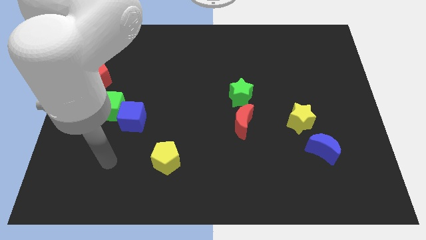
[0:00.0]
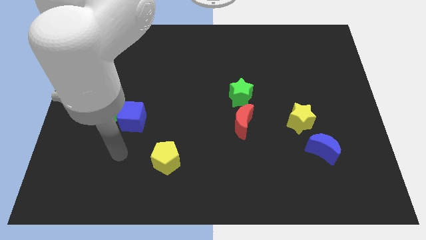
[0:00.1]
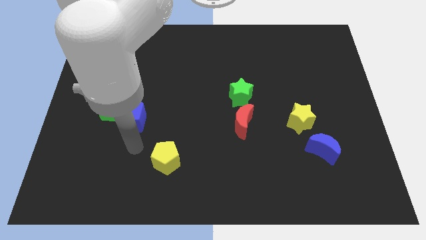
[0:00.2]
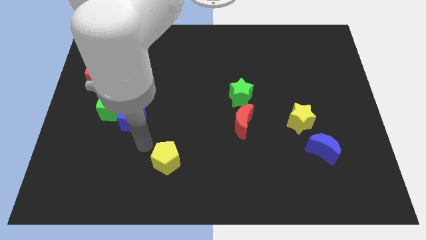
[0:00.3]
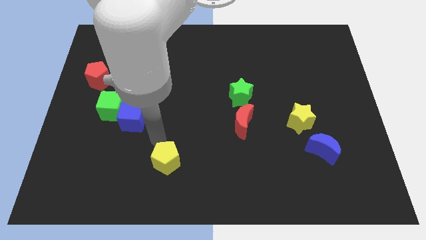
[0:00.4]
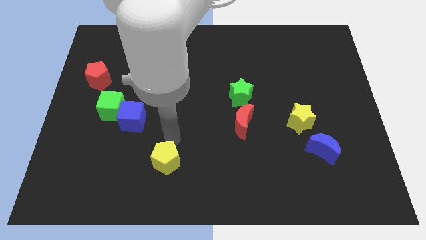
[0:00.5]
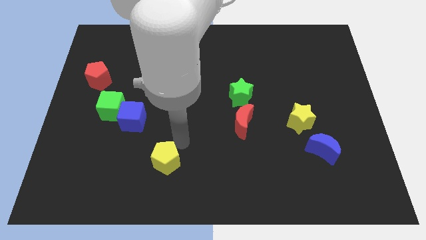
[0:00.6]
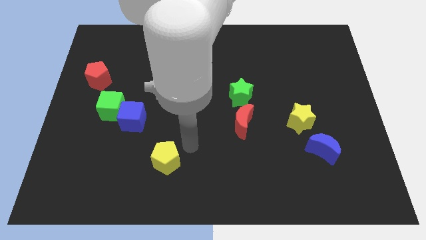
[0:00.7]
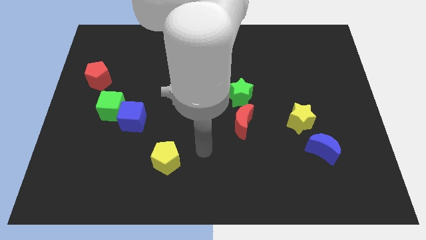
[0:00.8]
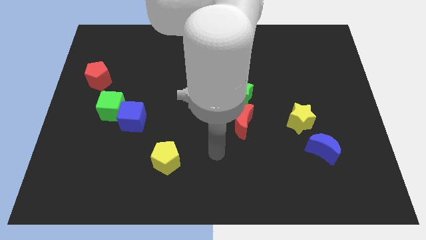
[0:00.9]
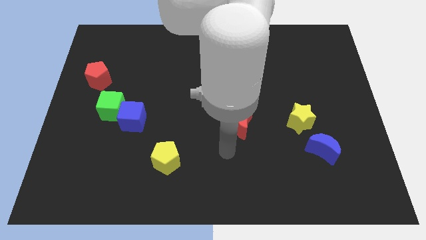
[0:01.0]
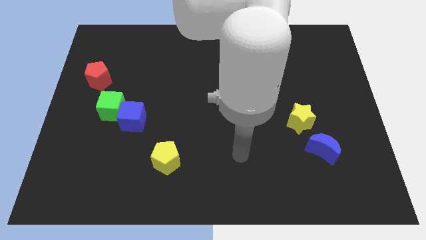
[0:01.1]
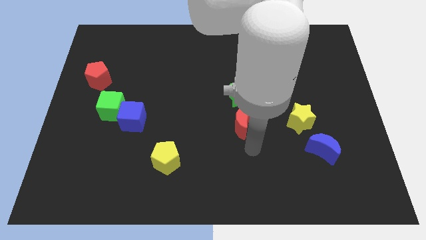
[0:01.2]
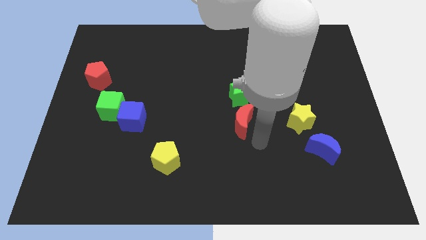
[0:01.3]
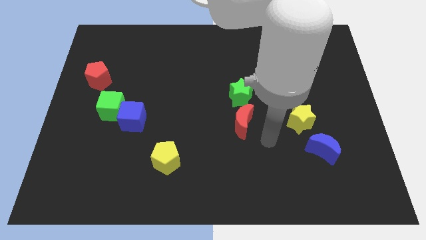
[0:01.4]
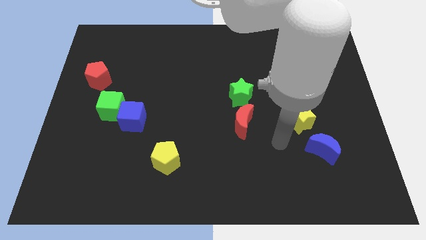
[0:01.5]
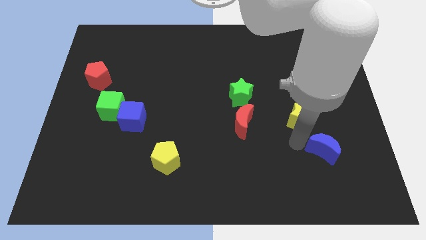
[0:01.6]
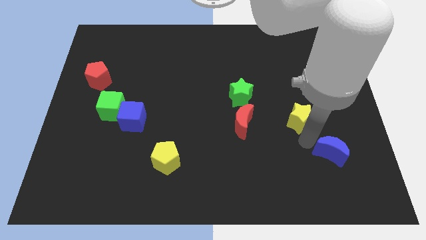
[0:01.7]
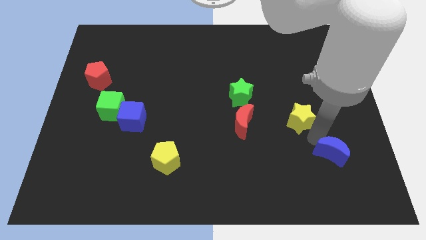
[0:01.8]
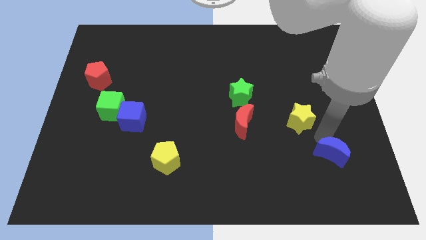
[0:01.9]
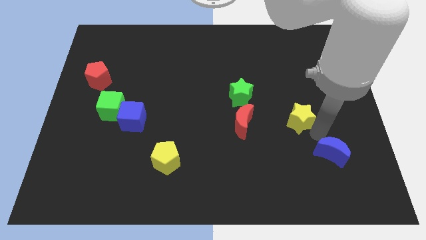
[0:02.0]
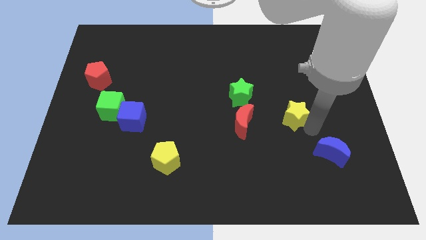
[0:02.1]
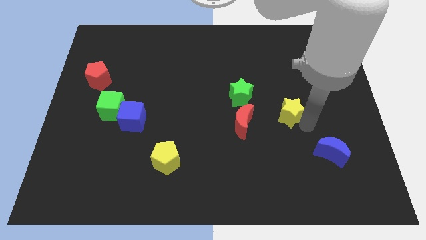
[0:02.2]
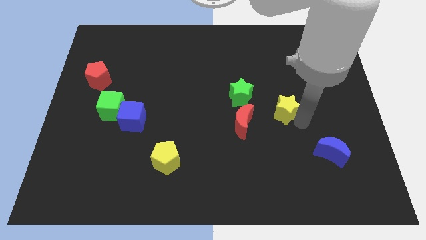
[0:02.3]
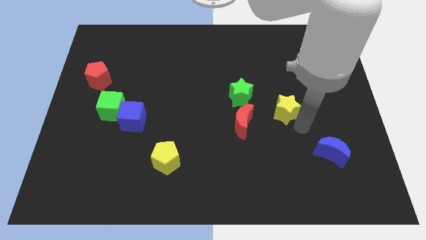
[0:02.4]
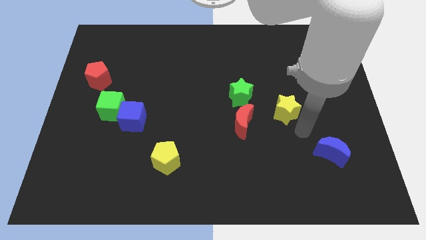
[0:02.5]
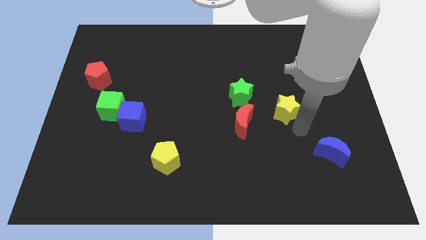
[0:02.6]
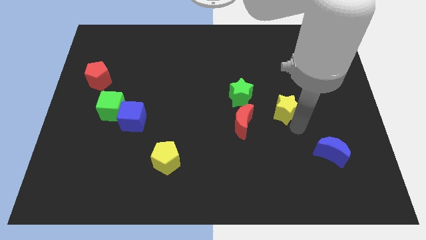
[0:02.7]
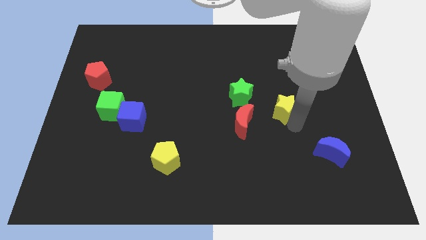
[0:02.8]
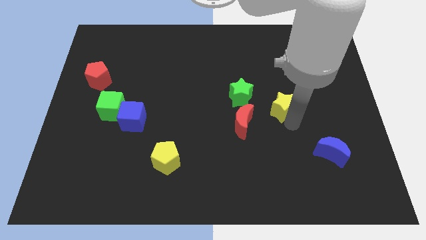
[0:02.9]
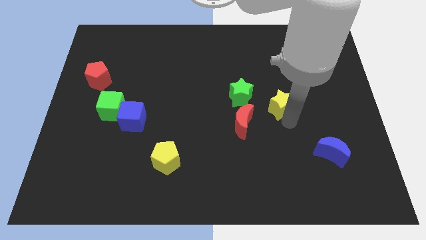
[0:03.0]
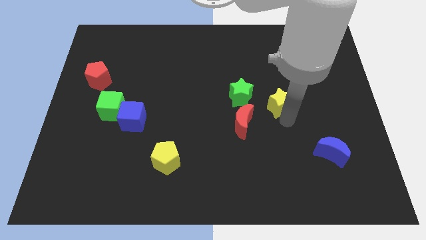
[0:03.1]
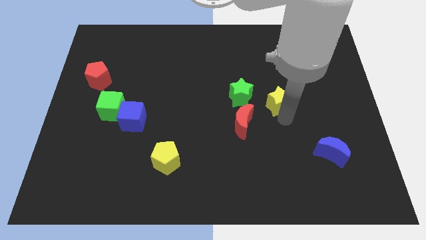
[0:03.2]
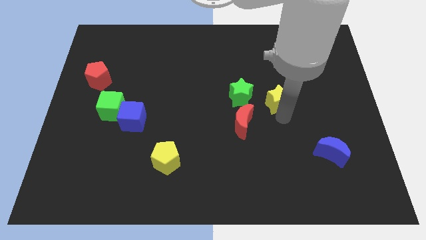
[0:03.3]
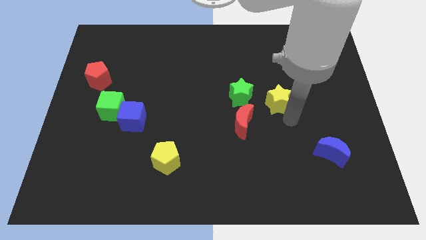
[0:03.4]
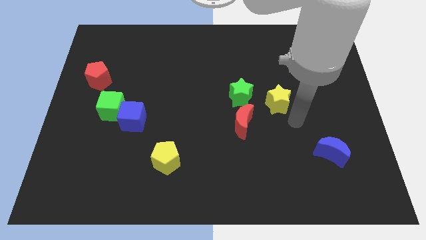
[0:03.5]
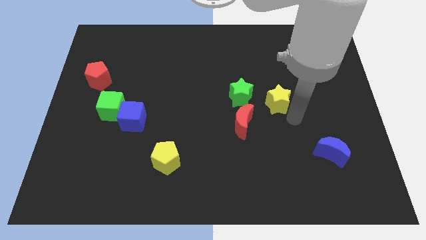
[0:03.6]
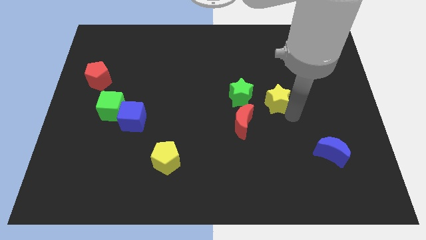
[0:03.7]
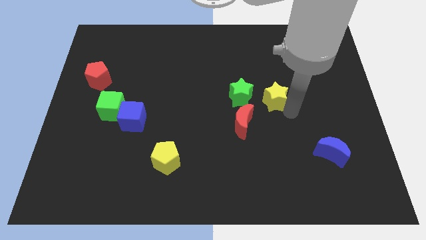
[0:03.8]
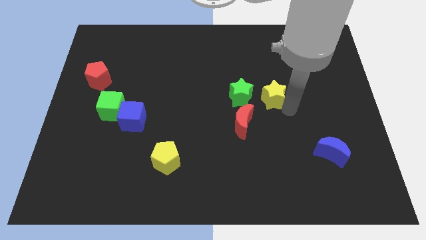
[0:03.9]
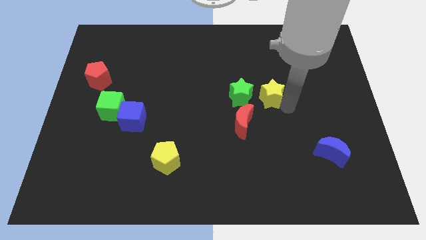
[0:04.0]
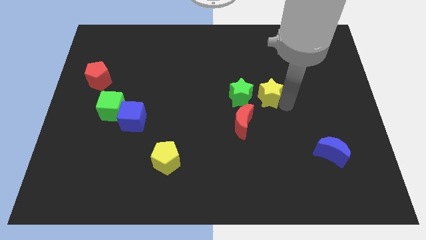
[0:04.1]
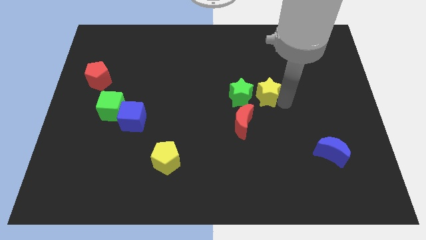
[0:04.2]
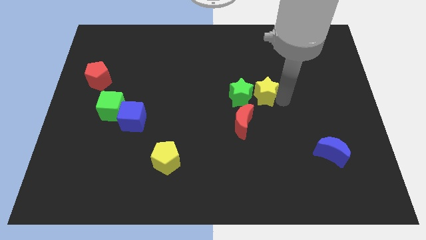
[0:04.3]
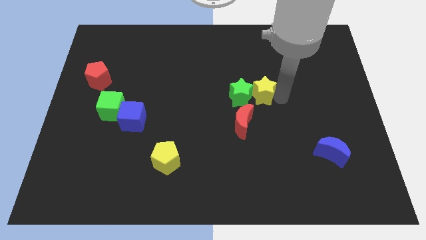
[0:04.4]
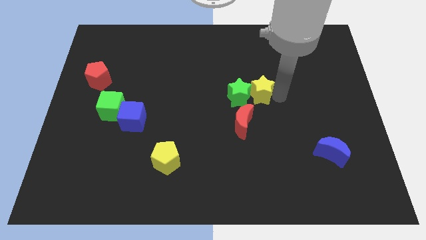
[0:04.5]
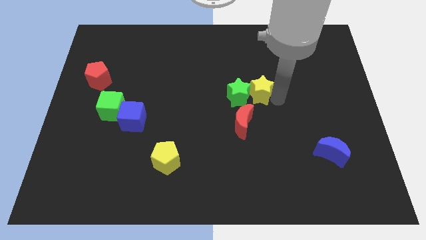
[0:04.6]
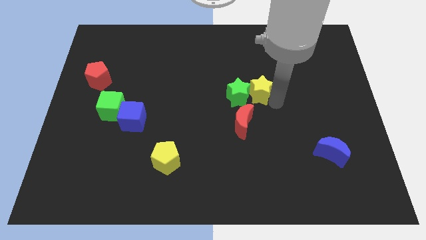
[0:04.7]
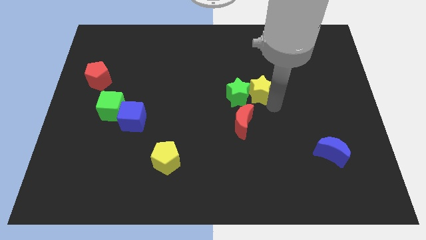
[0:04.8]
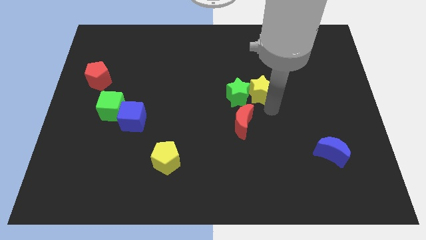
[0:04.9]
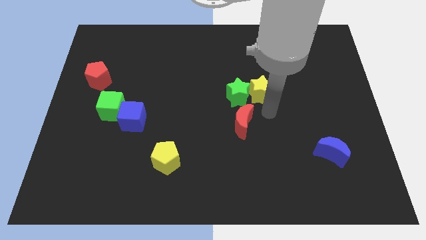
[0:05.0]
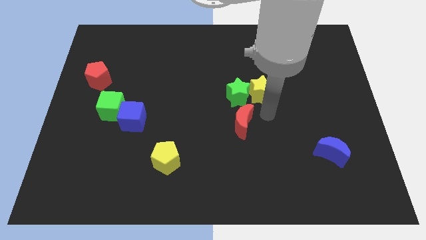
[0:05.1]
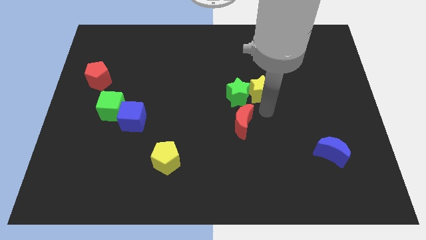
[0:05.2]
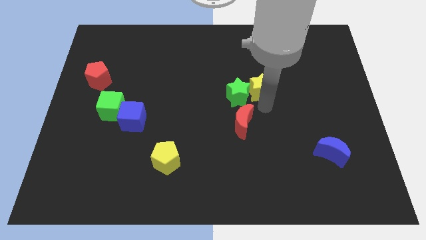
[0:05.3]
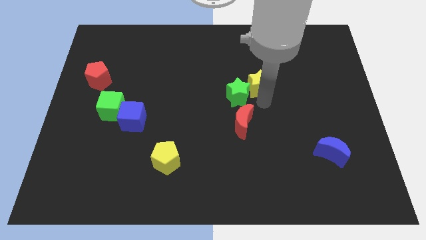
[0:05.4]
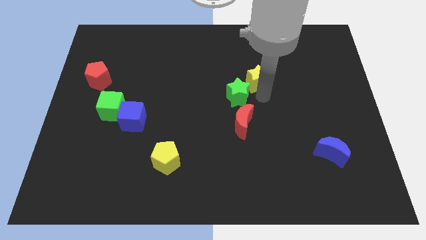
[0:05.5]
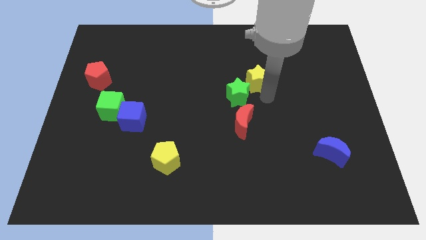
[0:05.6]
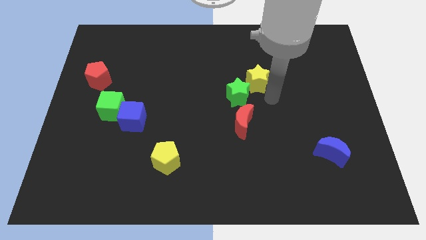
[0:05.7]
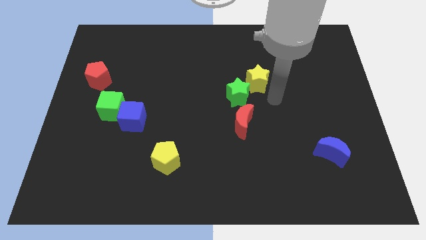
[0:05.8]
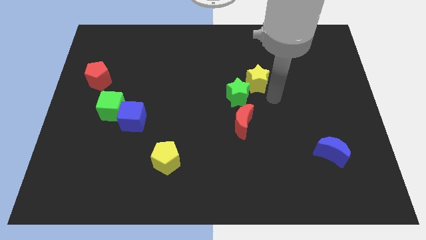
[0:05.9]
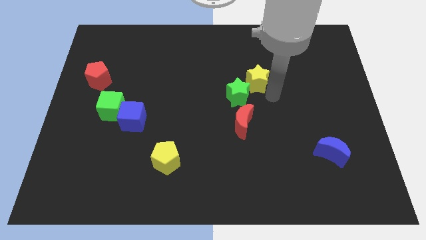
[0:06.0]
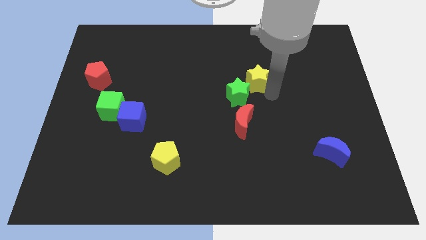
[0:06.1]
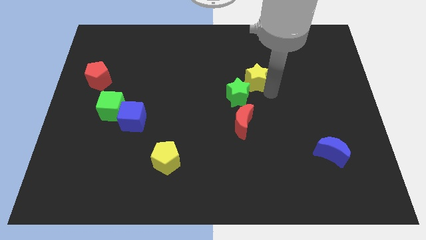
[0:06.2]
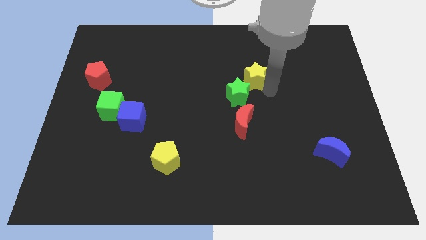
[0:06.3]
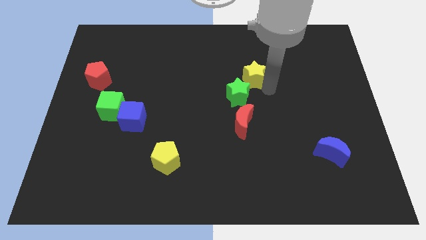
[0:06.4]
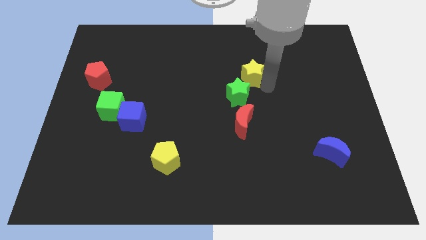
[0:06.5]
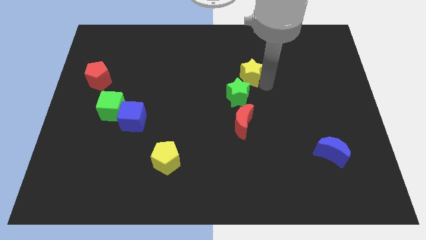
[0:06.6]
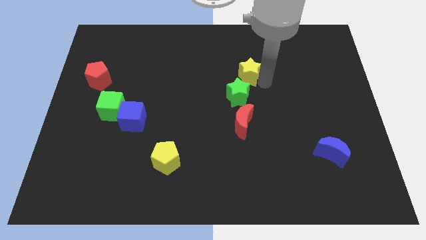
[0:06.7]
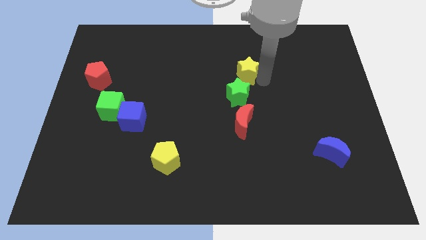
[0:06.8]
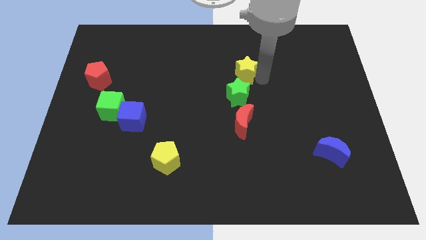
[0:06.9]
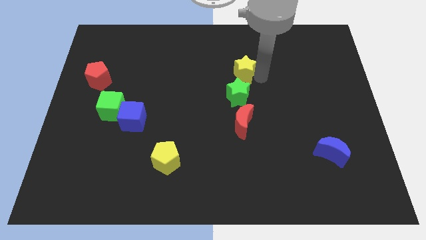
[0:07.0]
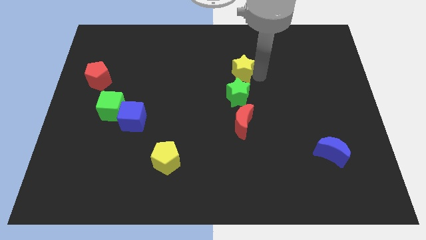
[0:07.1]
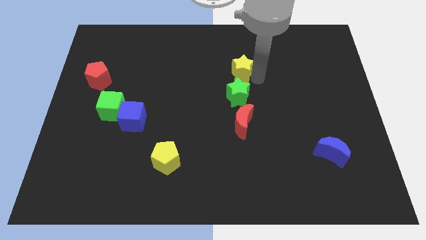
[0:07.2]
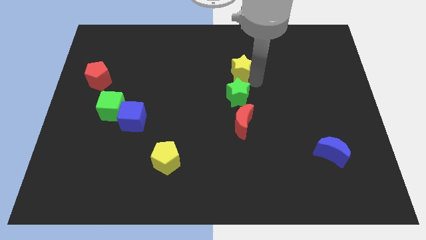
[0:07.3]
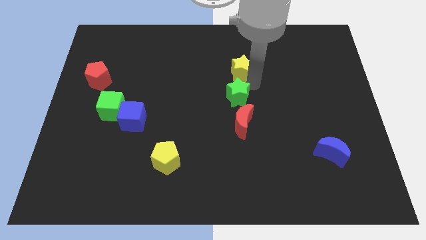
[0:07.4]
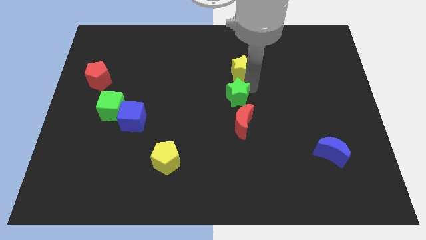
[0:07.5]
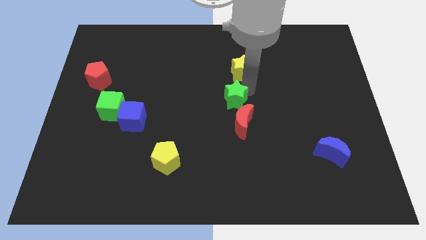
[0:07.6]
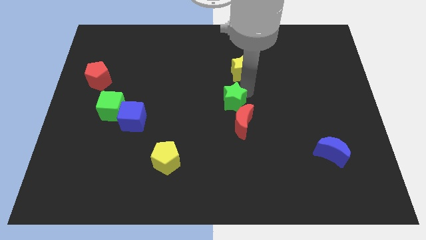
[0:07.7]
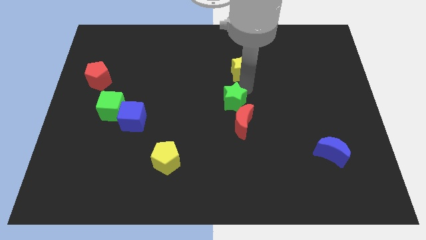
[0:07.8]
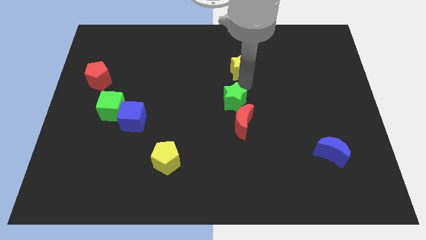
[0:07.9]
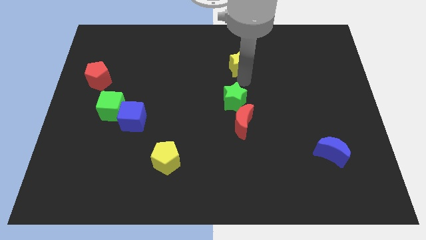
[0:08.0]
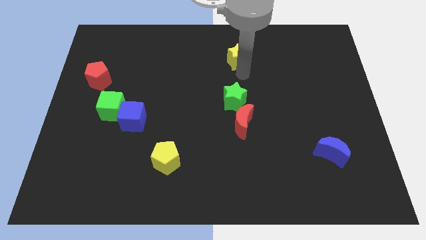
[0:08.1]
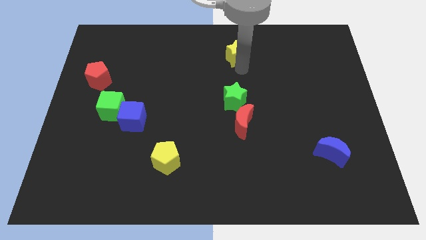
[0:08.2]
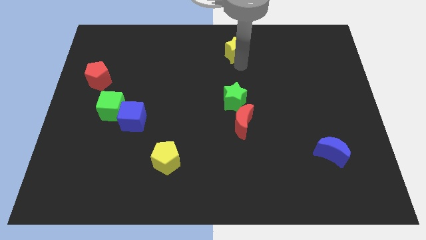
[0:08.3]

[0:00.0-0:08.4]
put the yellow star to the top side
